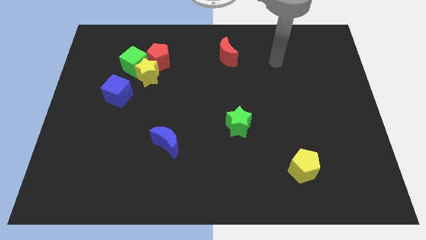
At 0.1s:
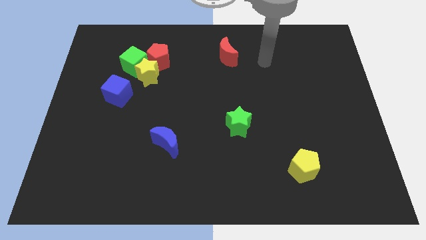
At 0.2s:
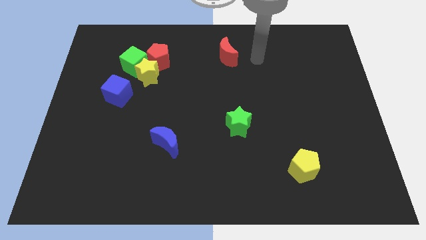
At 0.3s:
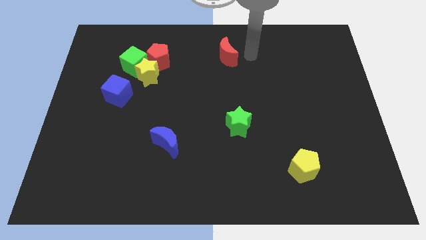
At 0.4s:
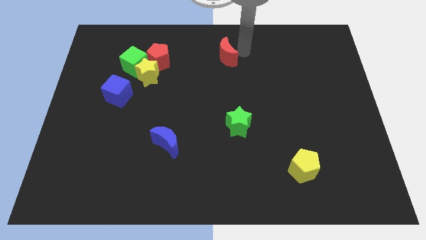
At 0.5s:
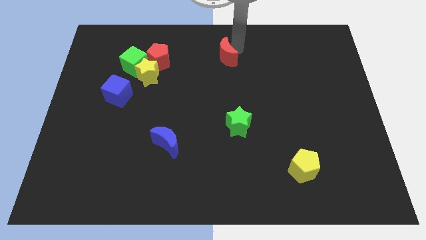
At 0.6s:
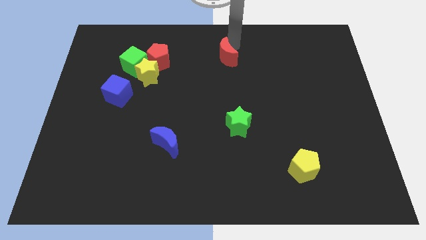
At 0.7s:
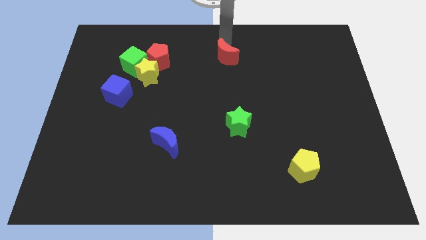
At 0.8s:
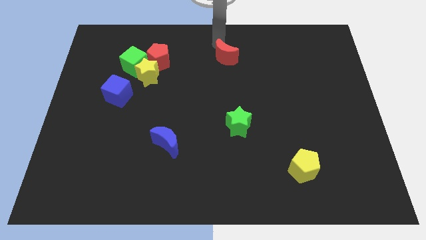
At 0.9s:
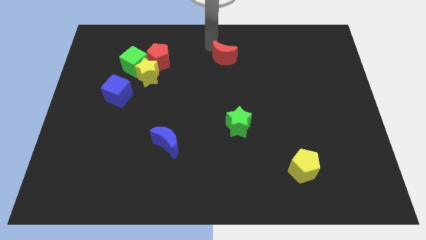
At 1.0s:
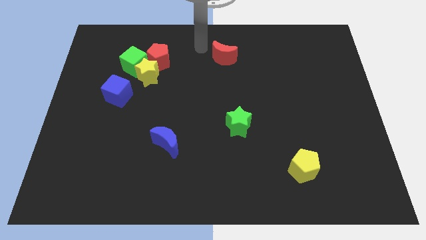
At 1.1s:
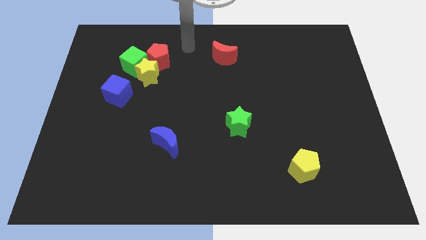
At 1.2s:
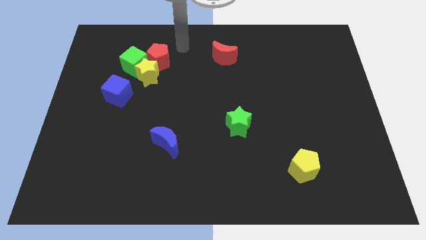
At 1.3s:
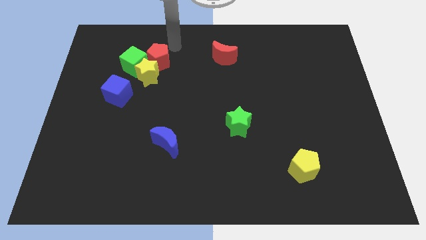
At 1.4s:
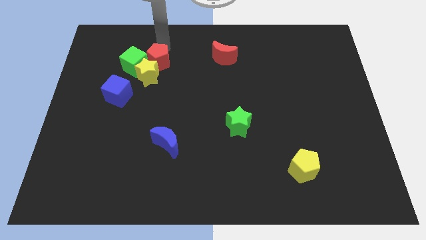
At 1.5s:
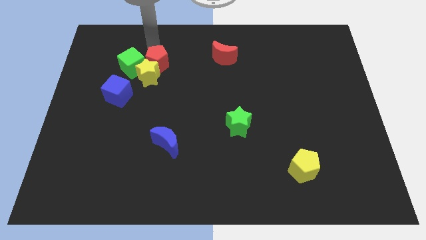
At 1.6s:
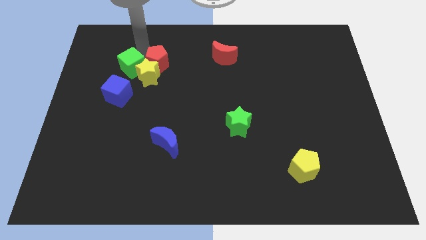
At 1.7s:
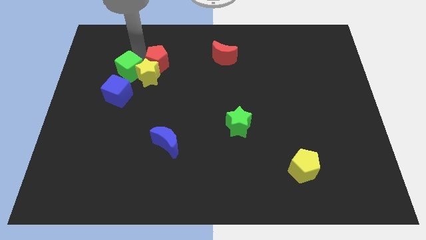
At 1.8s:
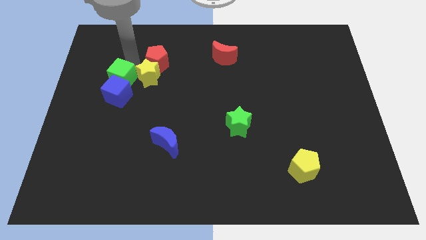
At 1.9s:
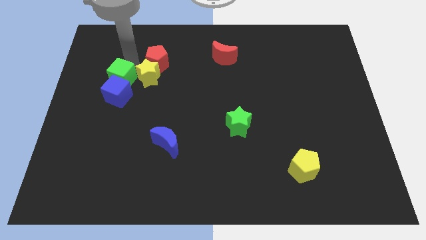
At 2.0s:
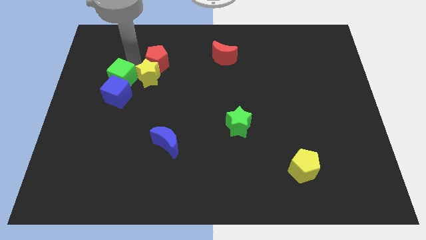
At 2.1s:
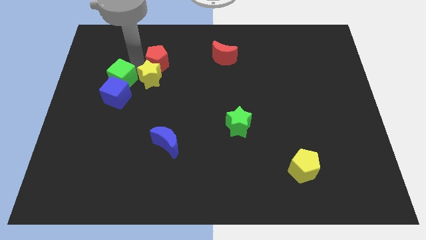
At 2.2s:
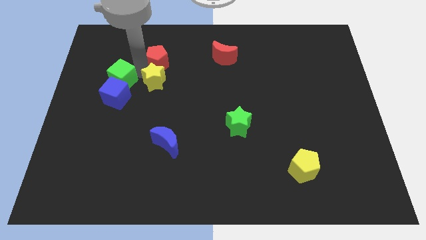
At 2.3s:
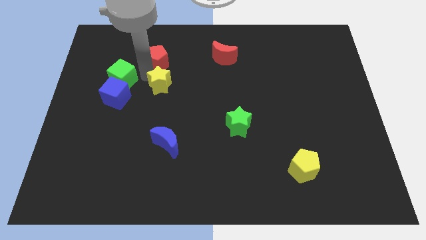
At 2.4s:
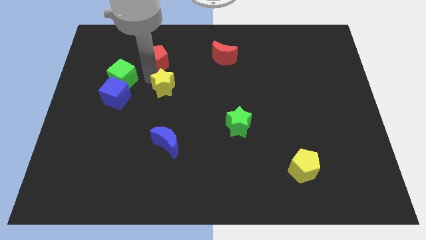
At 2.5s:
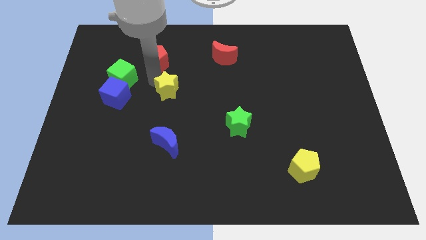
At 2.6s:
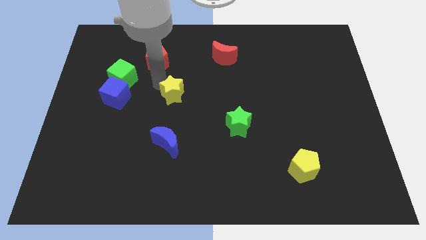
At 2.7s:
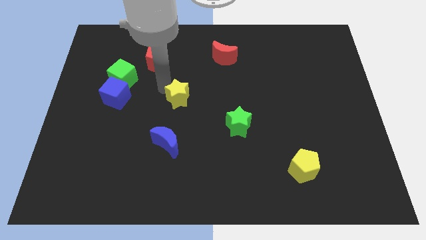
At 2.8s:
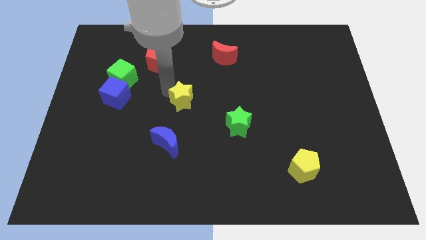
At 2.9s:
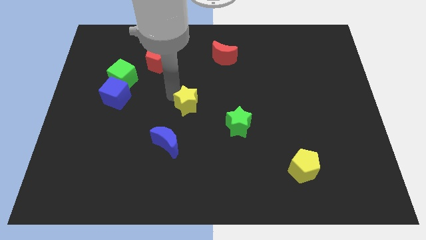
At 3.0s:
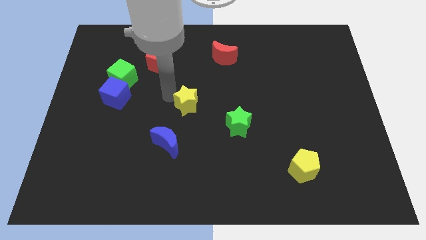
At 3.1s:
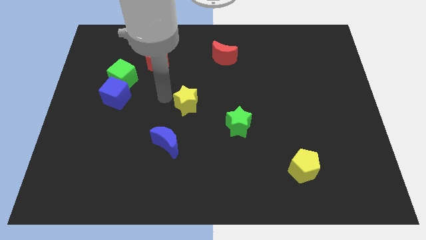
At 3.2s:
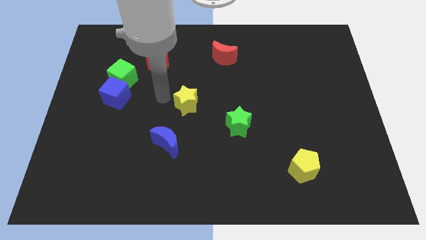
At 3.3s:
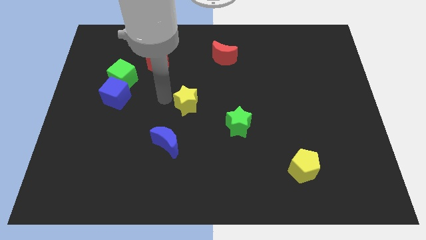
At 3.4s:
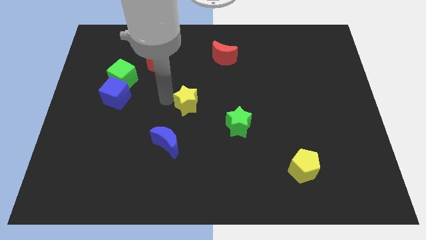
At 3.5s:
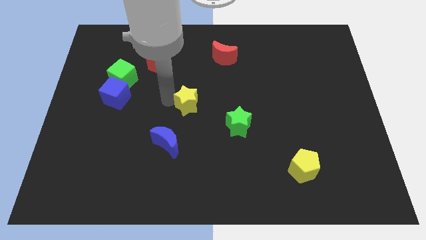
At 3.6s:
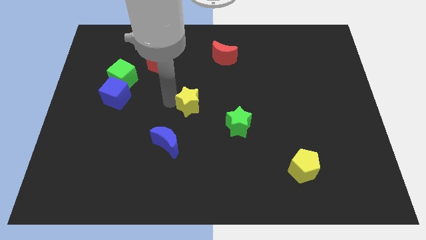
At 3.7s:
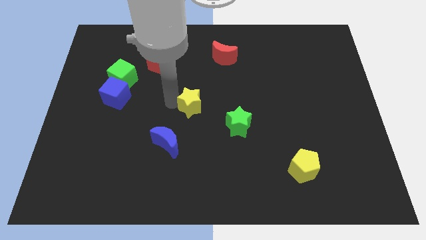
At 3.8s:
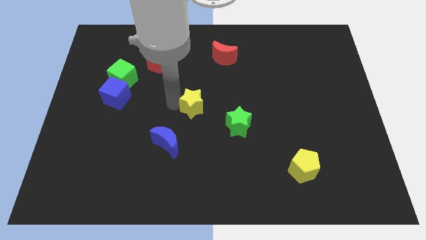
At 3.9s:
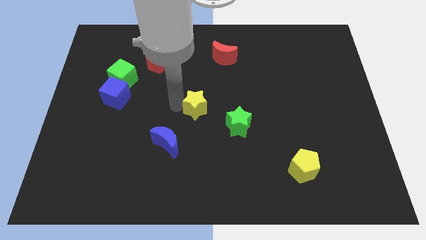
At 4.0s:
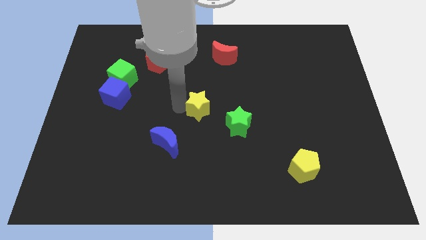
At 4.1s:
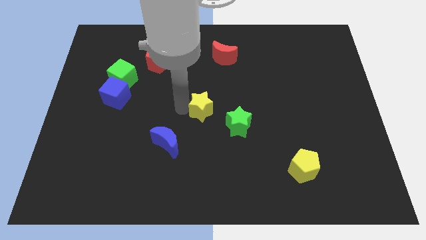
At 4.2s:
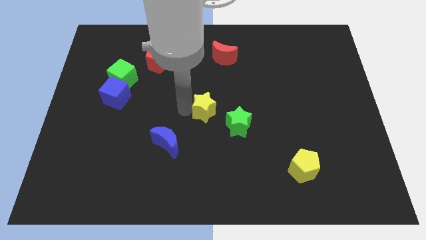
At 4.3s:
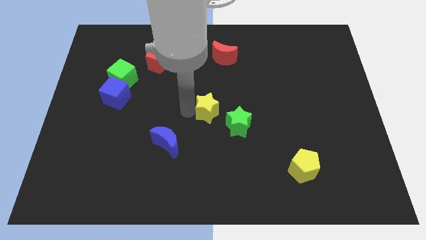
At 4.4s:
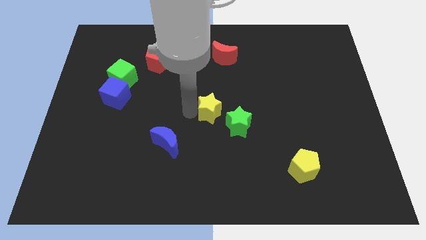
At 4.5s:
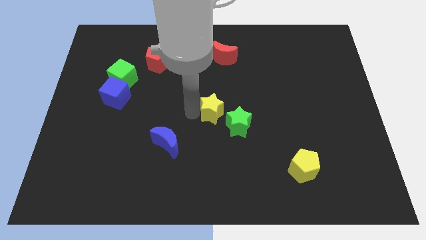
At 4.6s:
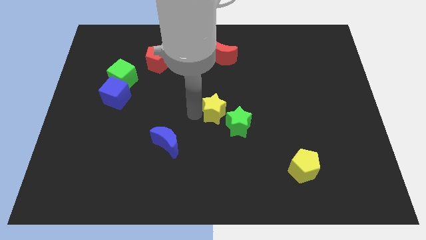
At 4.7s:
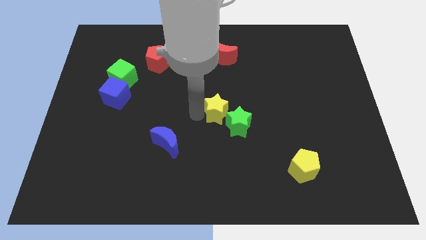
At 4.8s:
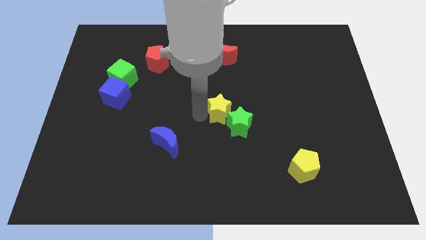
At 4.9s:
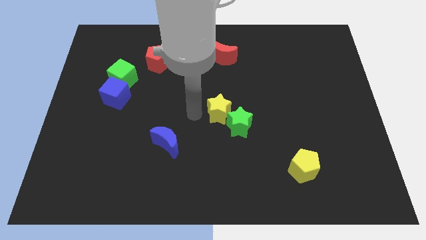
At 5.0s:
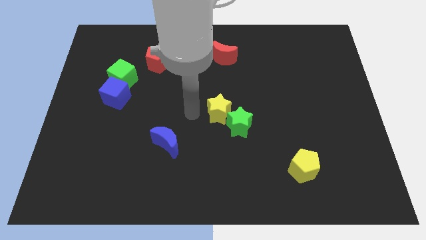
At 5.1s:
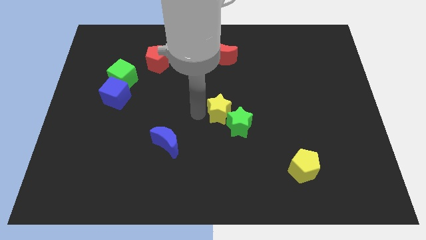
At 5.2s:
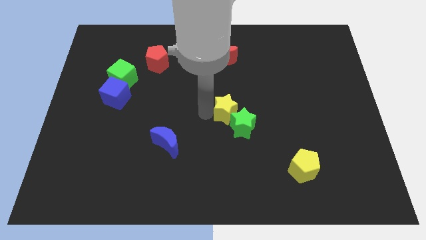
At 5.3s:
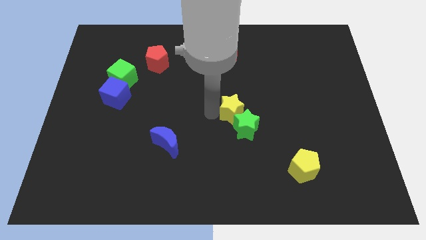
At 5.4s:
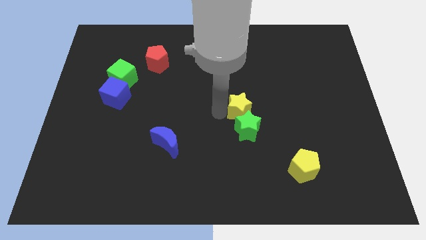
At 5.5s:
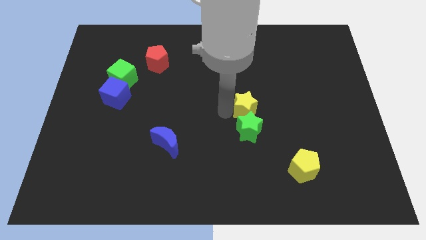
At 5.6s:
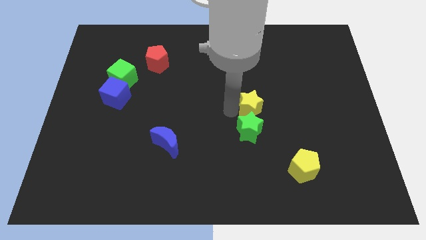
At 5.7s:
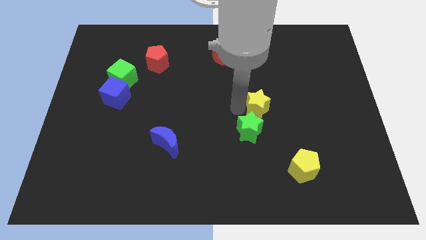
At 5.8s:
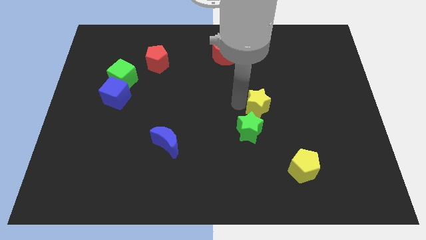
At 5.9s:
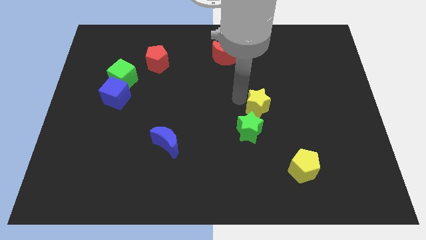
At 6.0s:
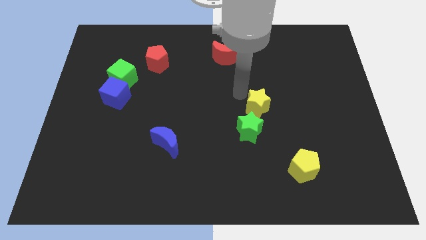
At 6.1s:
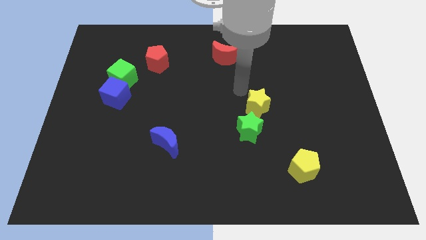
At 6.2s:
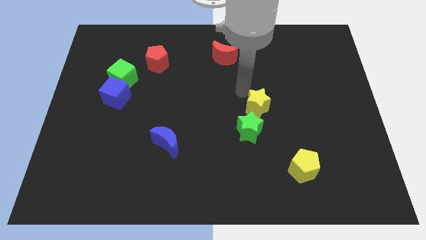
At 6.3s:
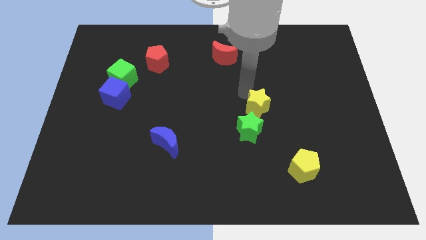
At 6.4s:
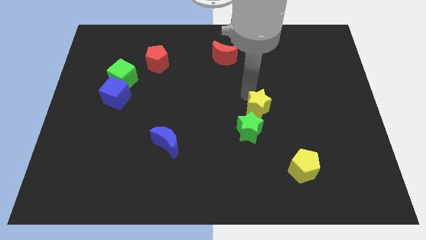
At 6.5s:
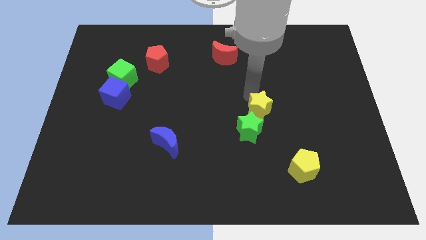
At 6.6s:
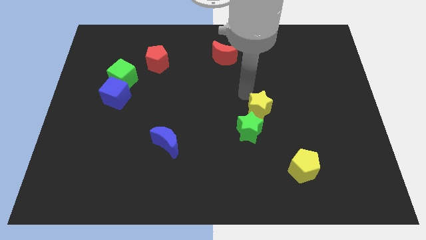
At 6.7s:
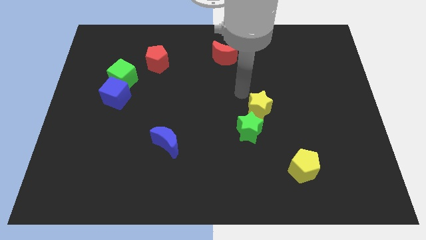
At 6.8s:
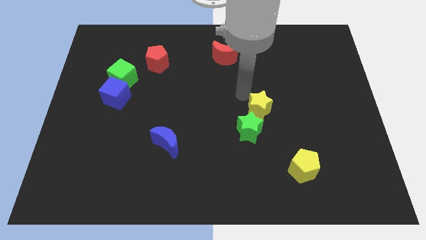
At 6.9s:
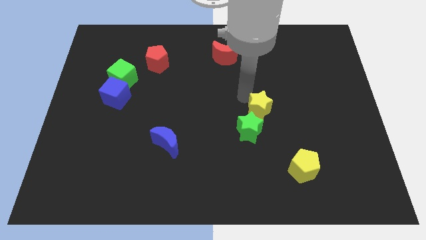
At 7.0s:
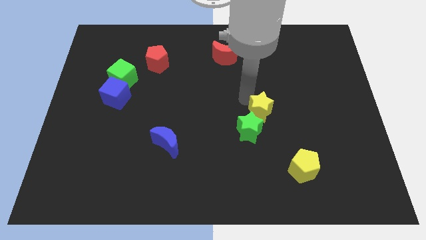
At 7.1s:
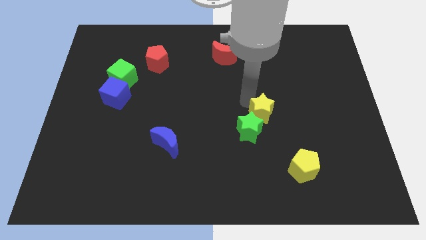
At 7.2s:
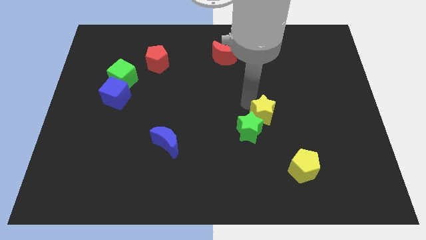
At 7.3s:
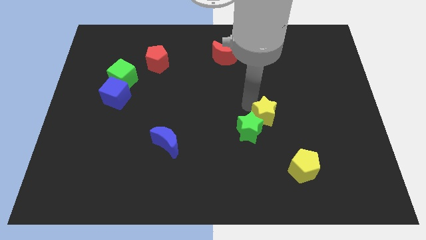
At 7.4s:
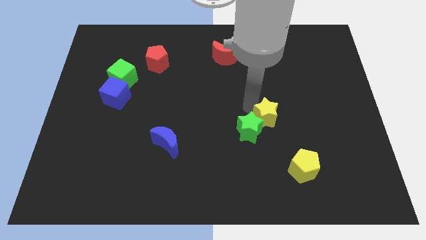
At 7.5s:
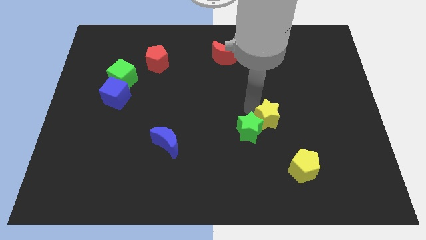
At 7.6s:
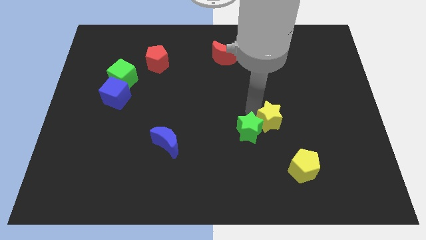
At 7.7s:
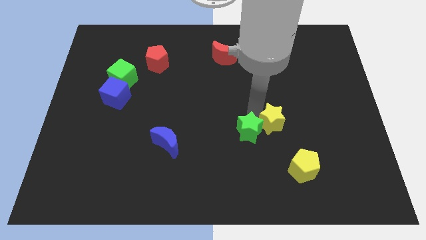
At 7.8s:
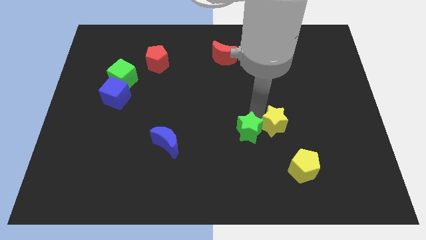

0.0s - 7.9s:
move the yellow star to the top side of the yellow pentagon
